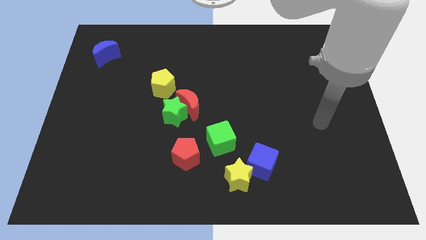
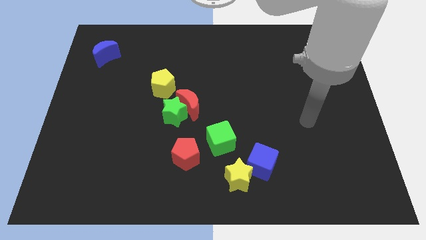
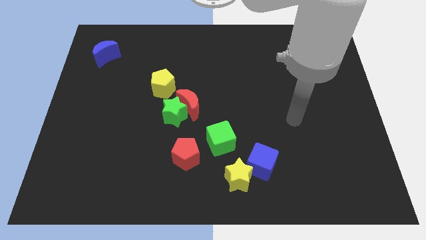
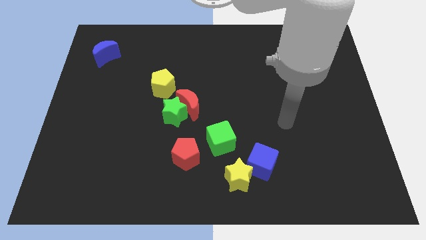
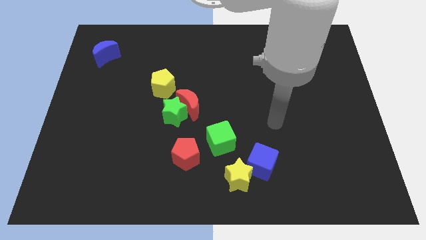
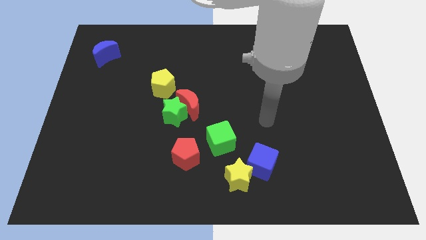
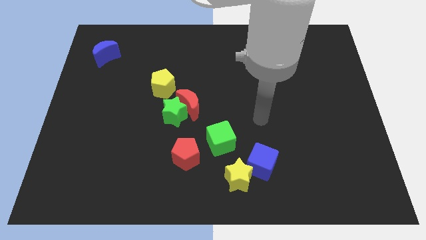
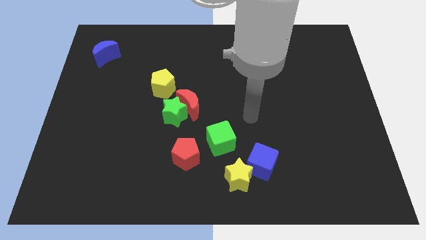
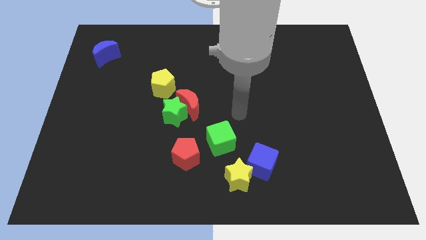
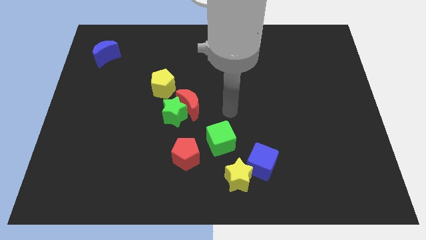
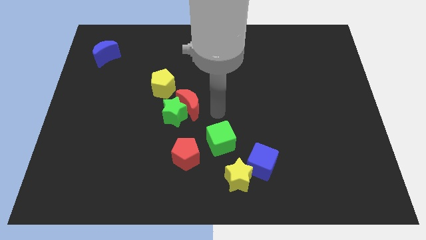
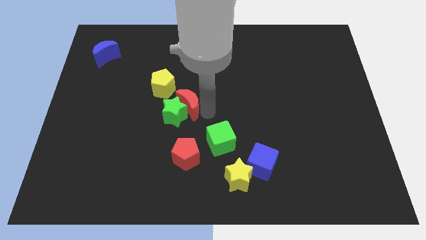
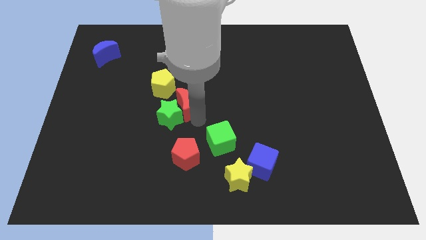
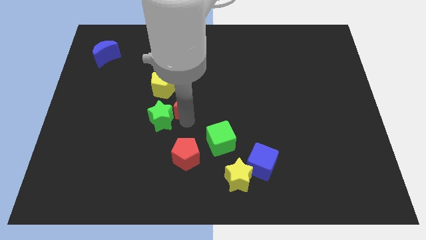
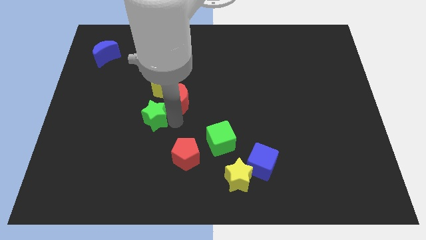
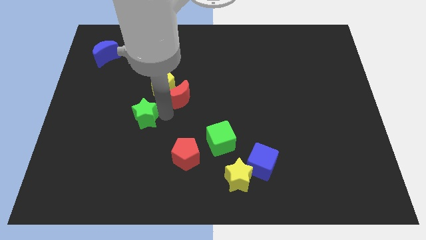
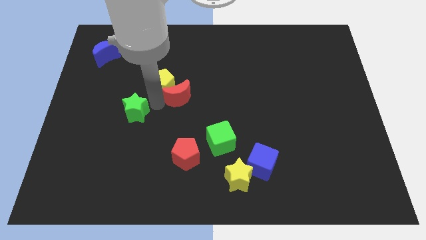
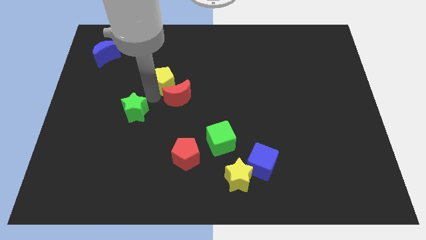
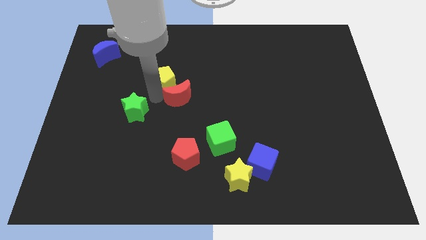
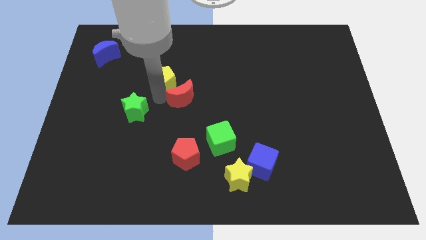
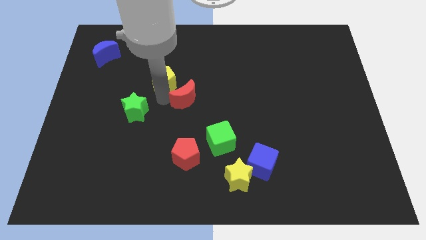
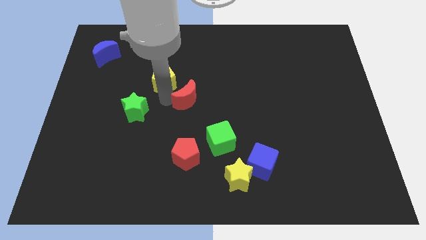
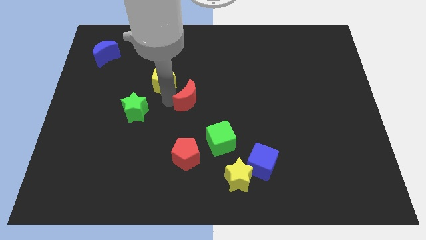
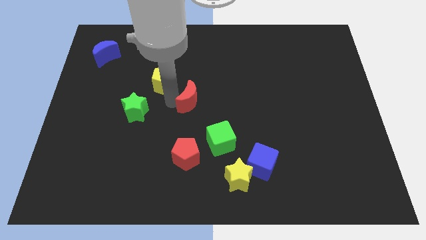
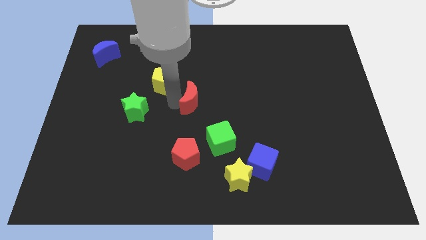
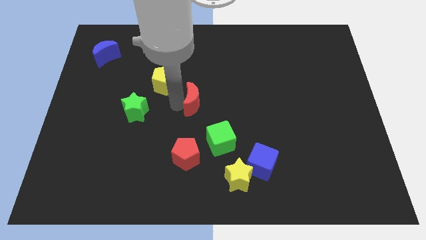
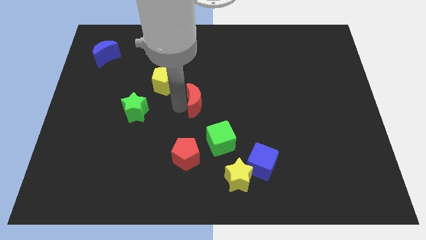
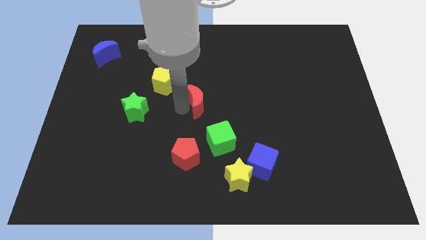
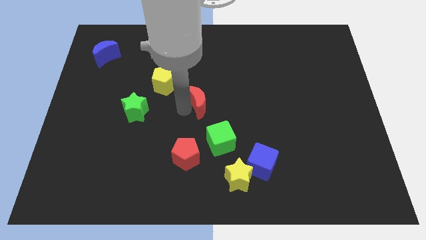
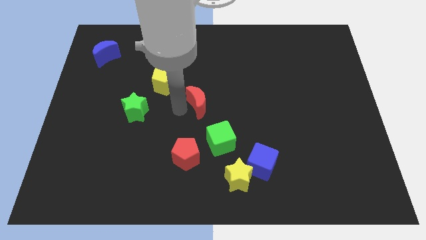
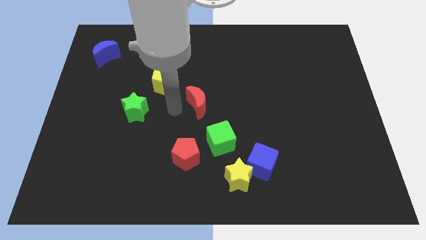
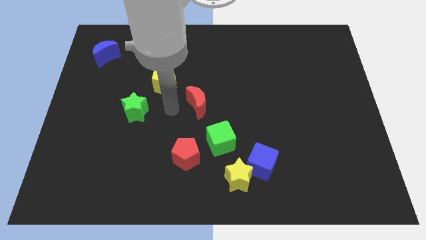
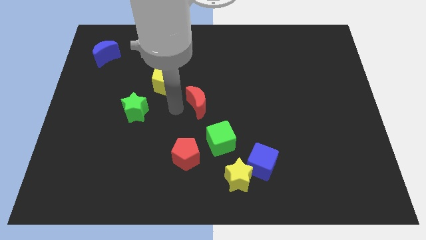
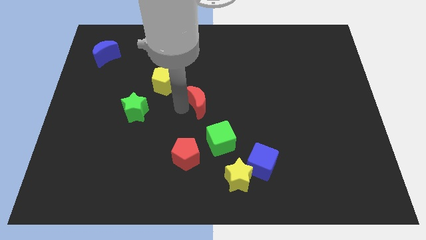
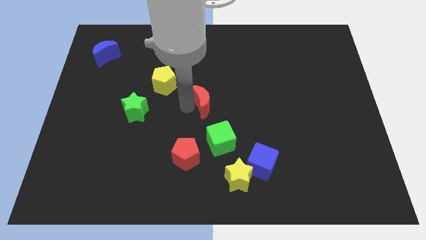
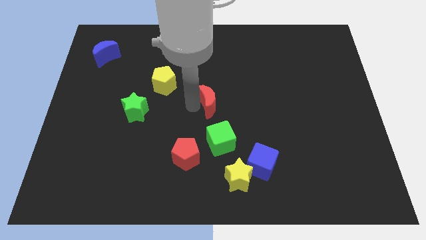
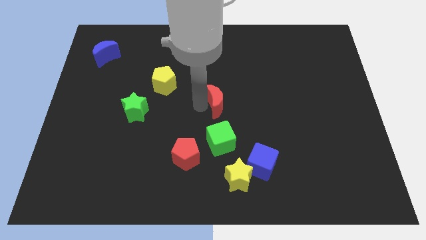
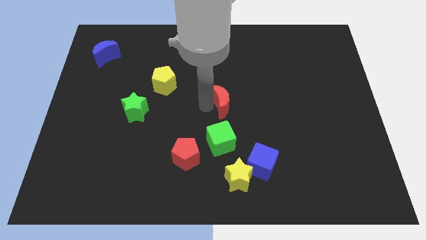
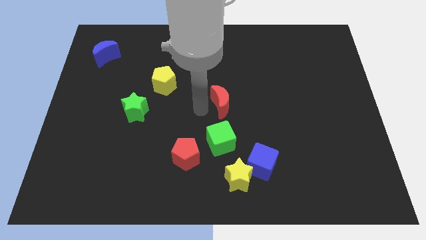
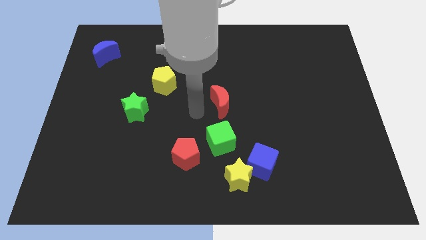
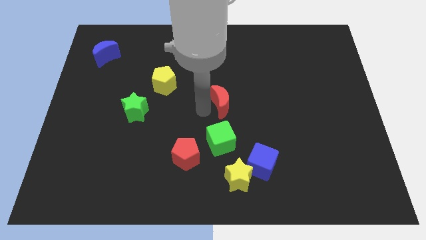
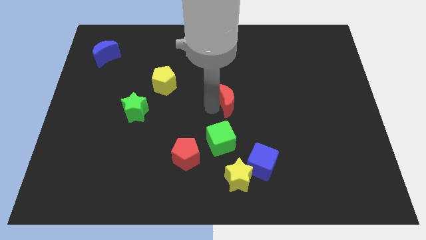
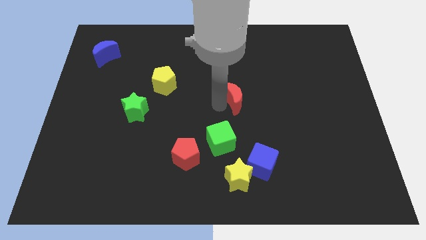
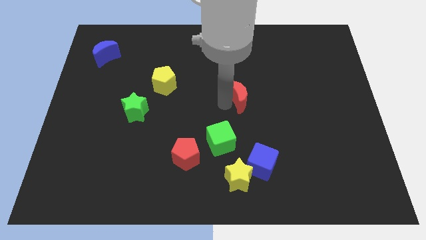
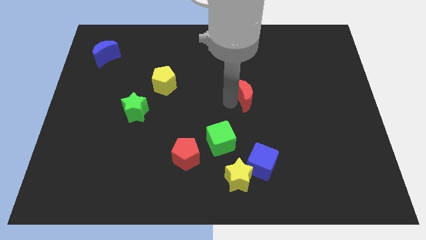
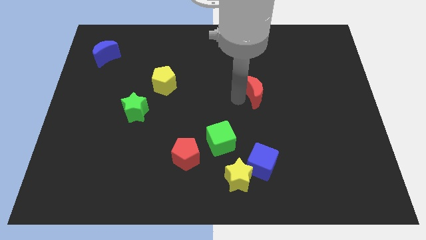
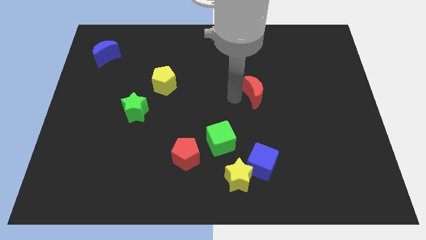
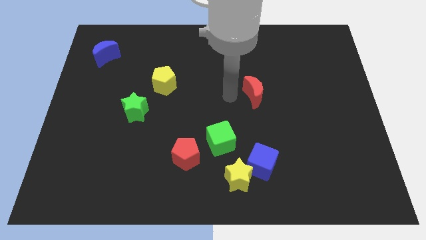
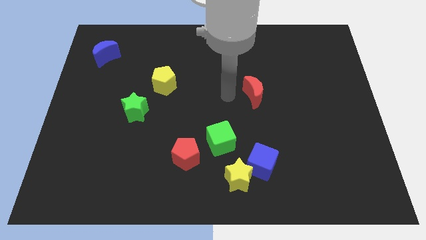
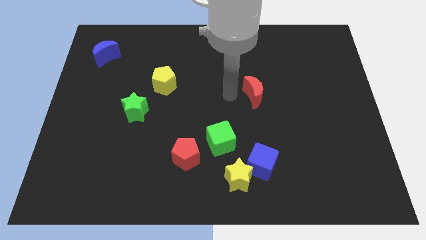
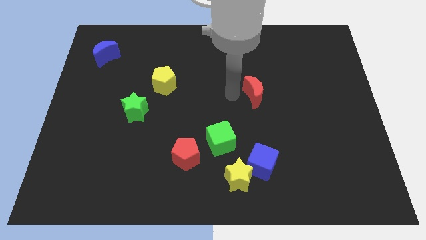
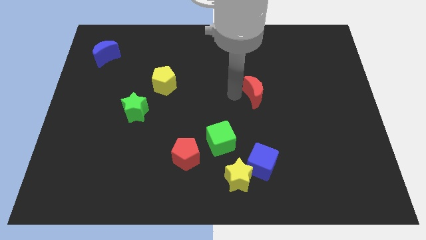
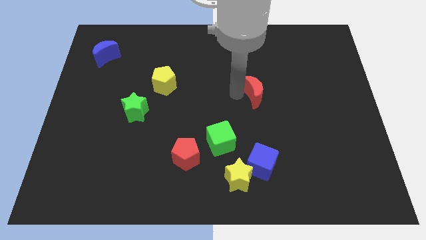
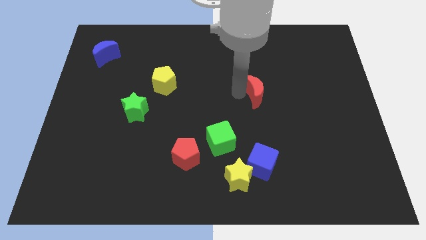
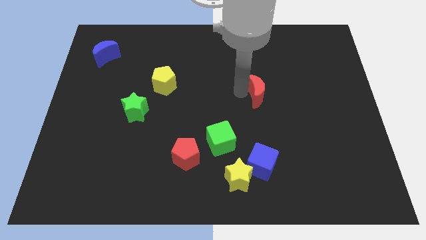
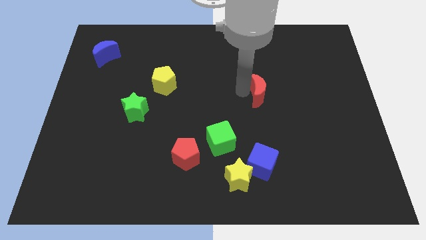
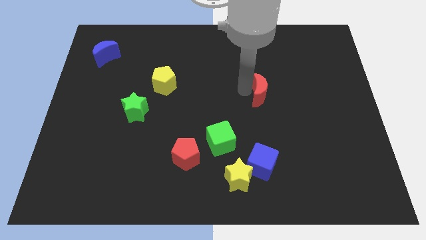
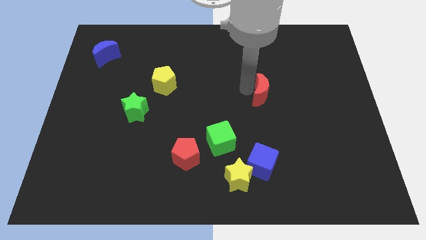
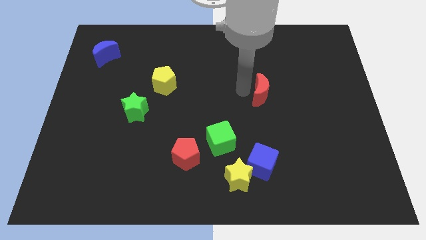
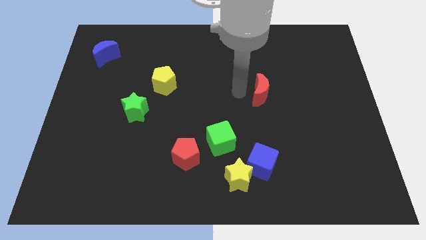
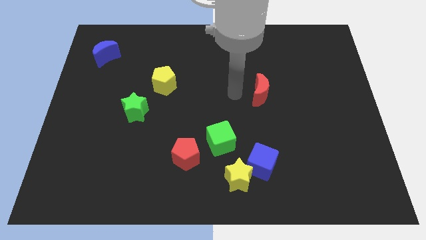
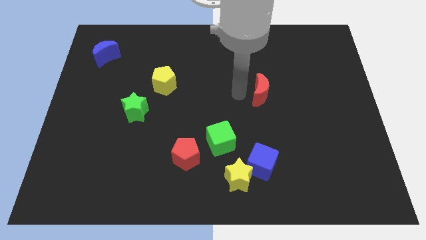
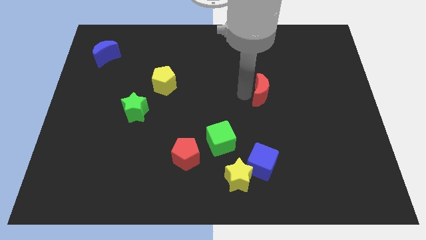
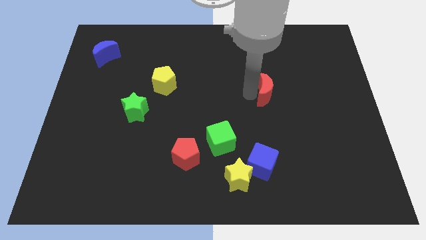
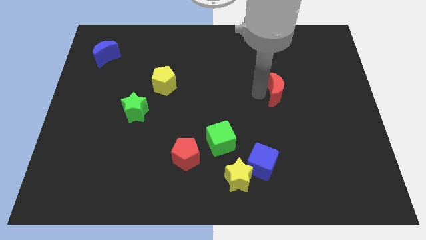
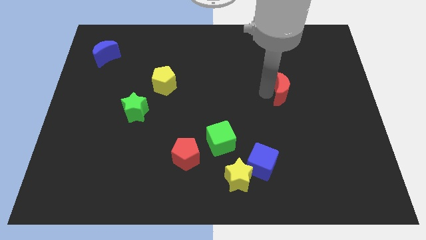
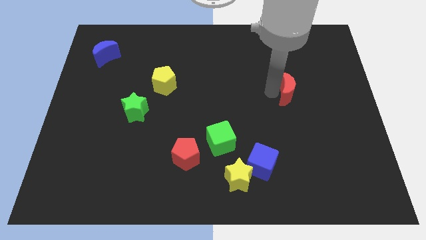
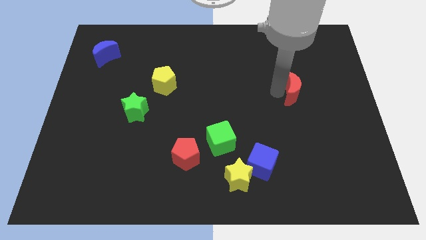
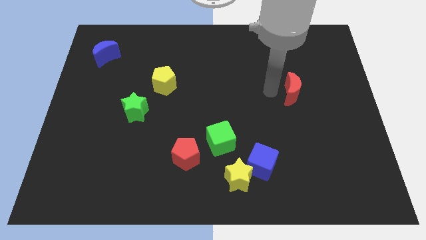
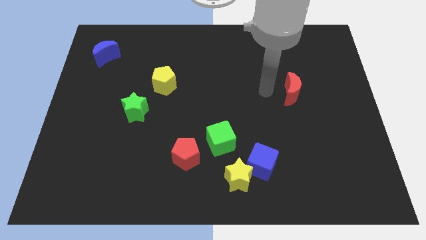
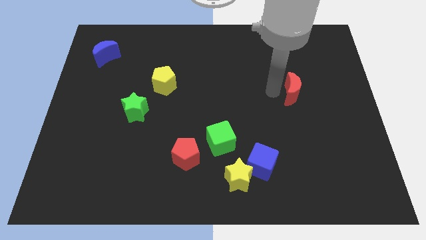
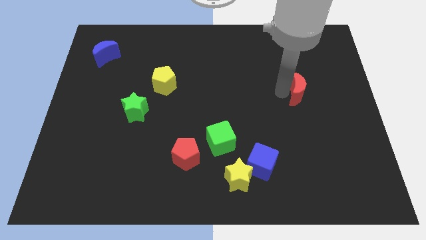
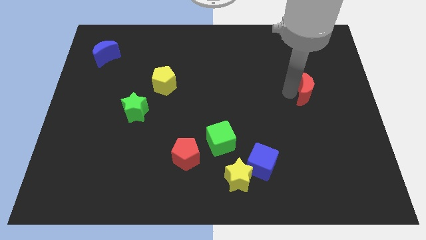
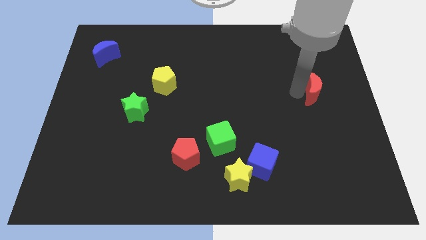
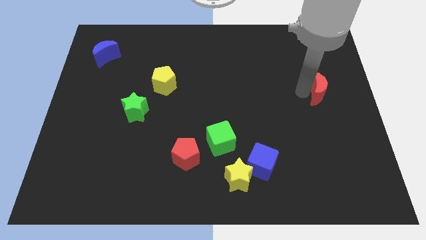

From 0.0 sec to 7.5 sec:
put the red moon to the right side of the board
